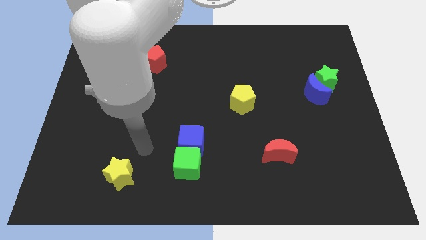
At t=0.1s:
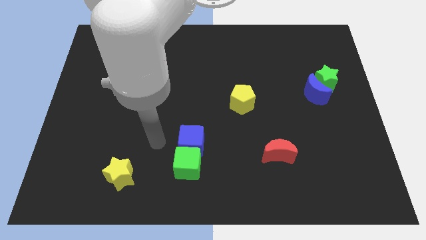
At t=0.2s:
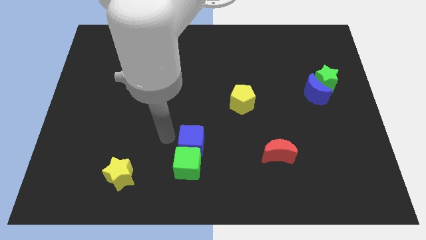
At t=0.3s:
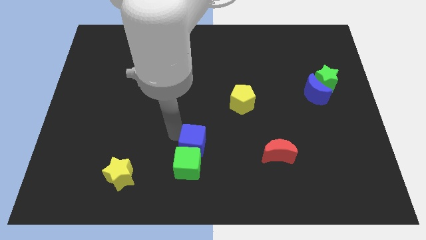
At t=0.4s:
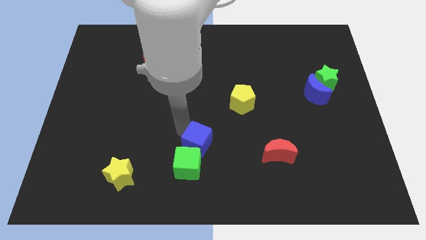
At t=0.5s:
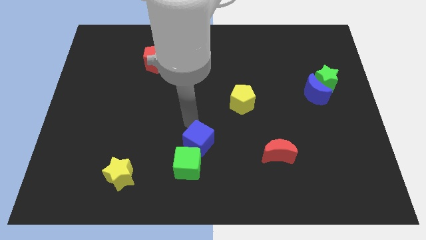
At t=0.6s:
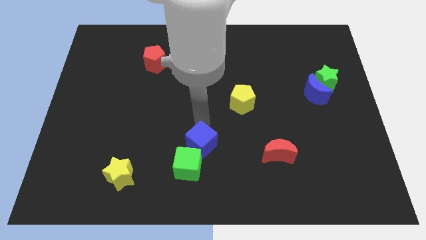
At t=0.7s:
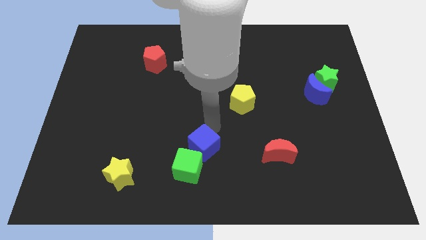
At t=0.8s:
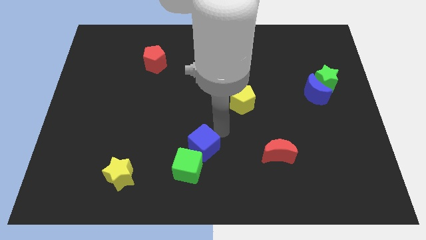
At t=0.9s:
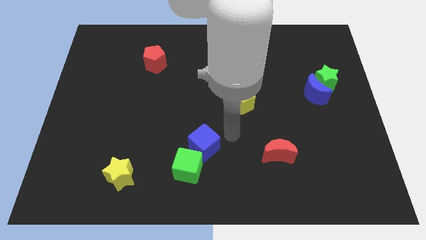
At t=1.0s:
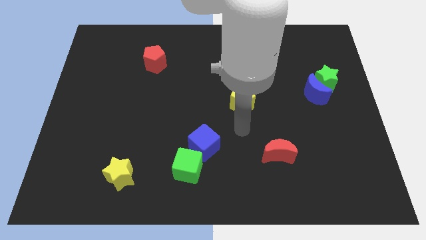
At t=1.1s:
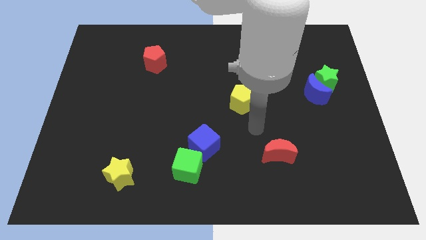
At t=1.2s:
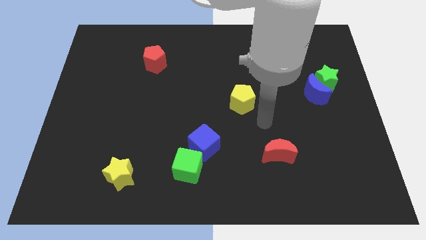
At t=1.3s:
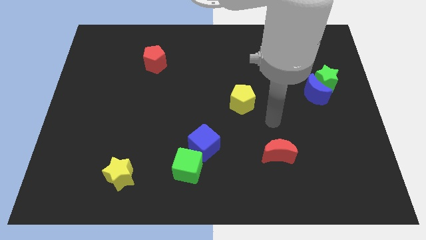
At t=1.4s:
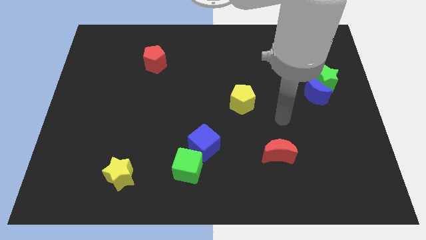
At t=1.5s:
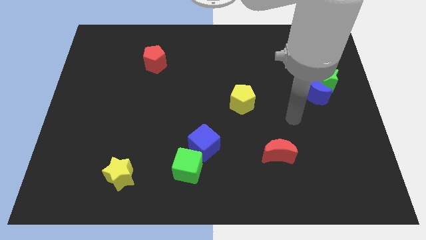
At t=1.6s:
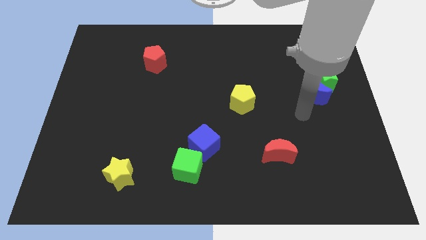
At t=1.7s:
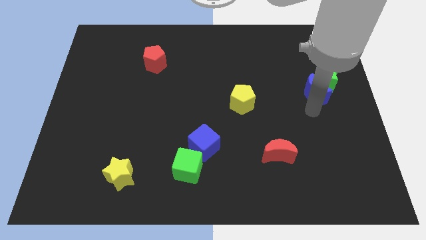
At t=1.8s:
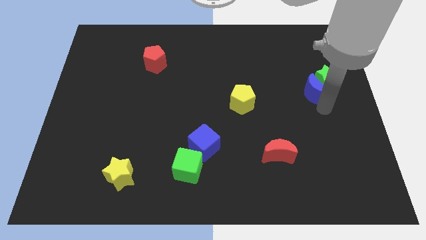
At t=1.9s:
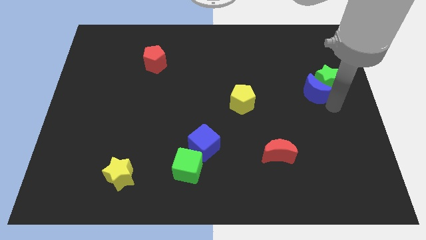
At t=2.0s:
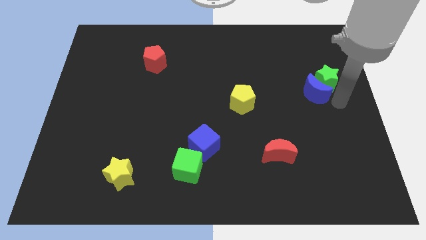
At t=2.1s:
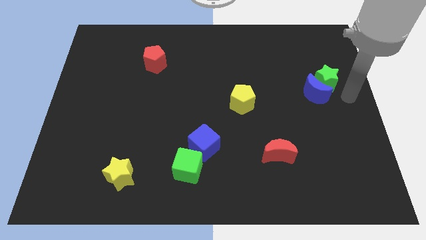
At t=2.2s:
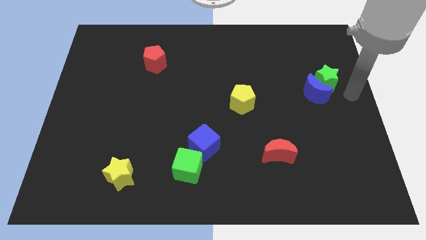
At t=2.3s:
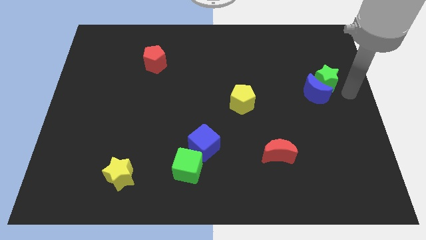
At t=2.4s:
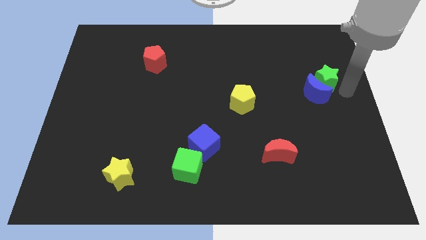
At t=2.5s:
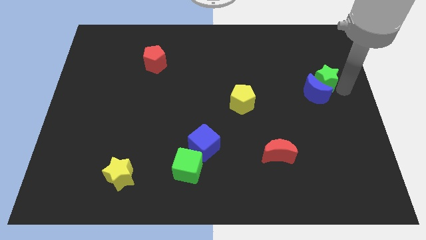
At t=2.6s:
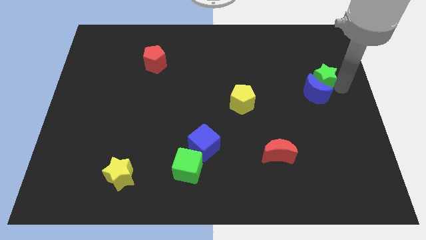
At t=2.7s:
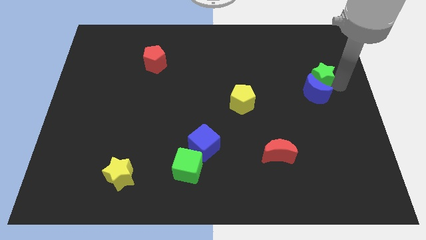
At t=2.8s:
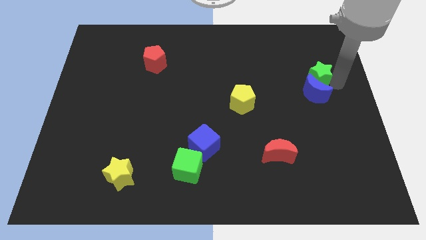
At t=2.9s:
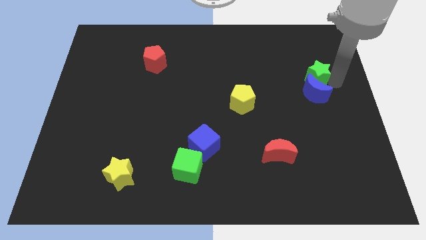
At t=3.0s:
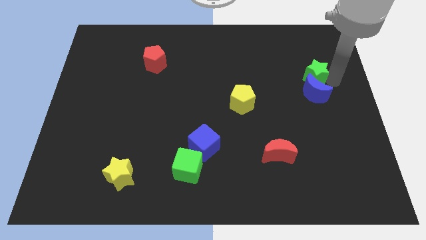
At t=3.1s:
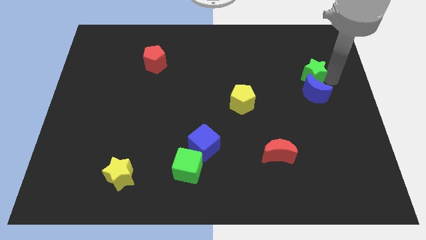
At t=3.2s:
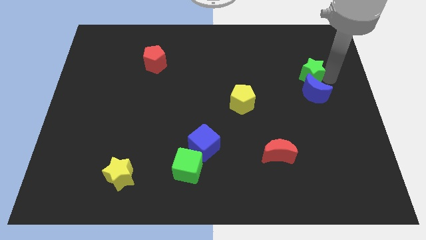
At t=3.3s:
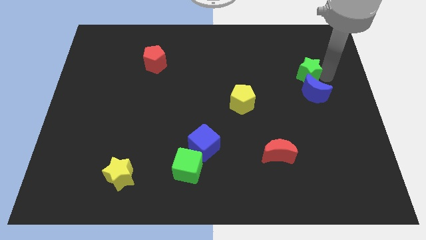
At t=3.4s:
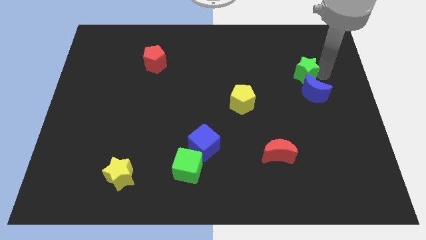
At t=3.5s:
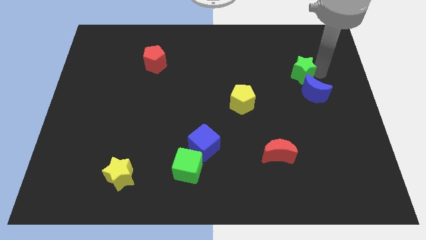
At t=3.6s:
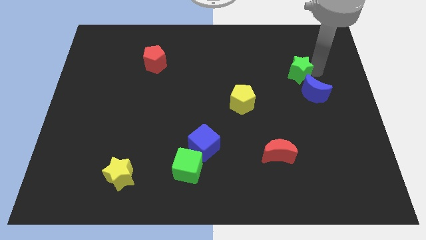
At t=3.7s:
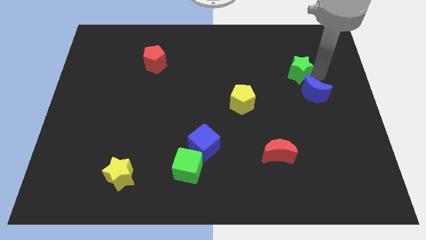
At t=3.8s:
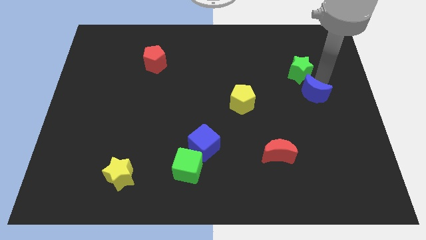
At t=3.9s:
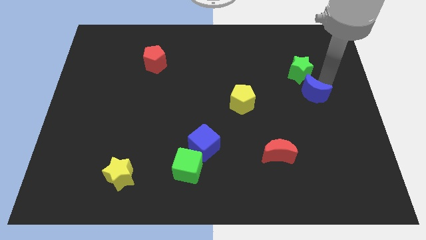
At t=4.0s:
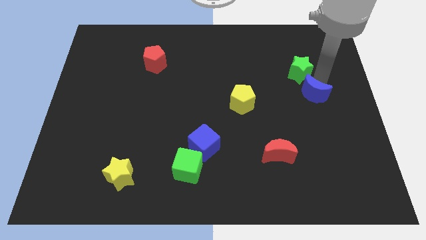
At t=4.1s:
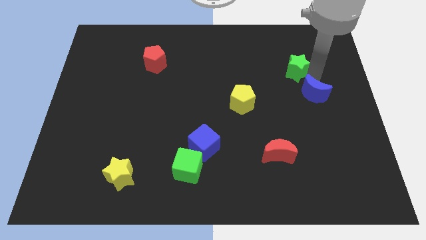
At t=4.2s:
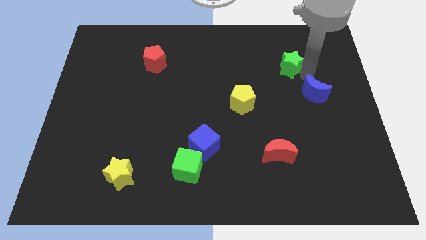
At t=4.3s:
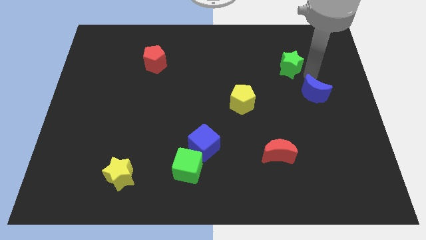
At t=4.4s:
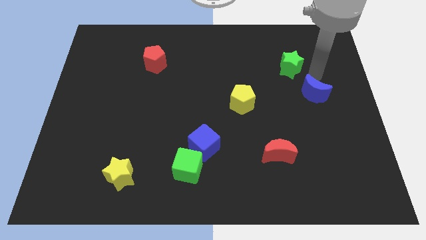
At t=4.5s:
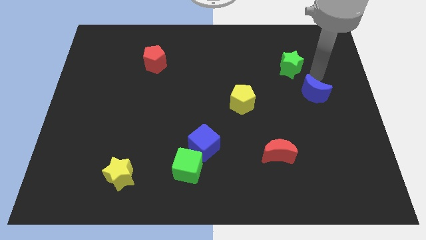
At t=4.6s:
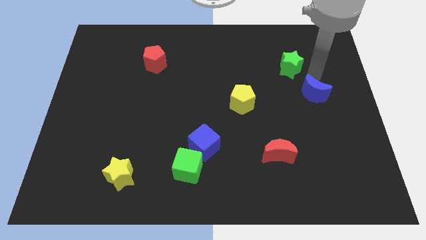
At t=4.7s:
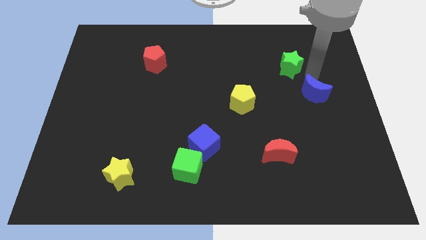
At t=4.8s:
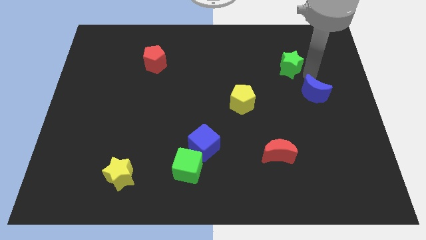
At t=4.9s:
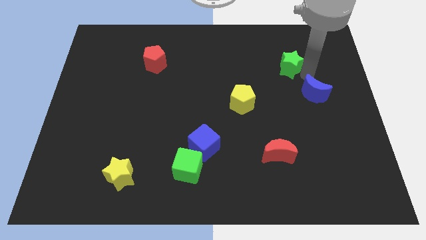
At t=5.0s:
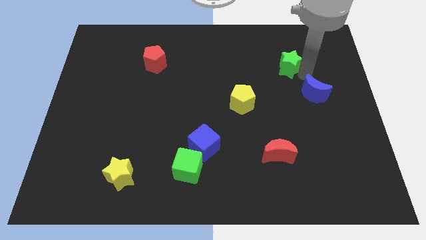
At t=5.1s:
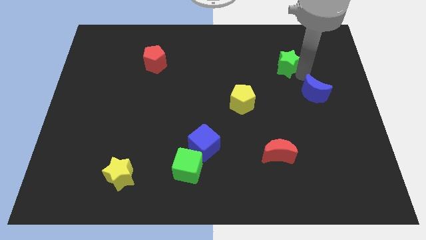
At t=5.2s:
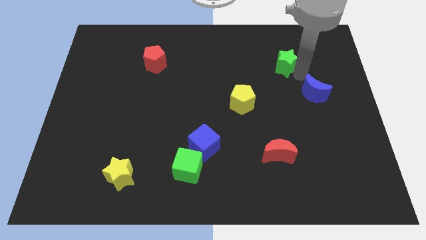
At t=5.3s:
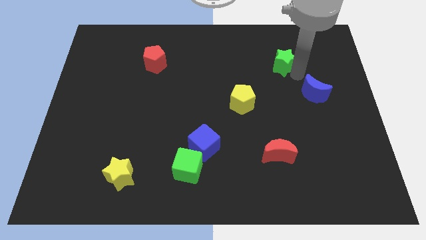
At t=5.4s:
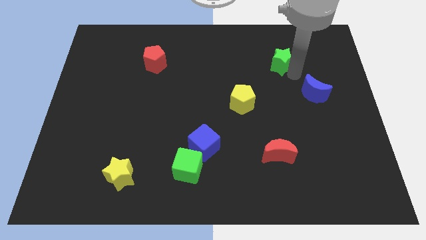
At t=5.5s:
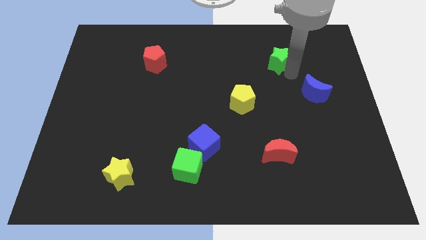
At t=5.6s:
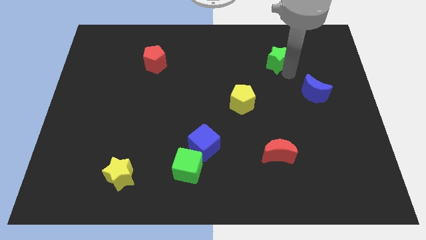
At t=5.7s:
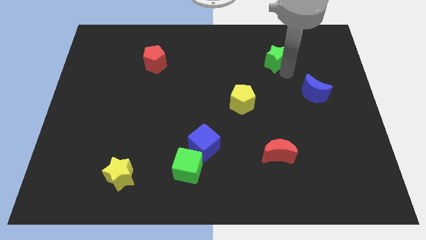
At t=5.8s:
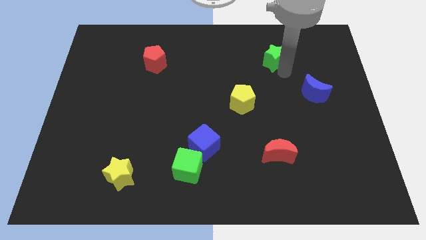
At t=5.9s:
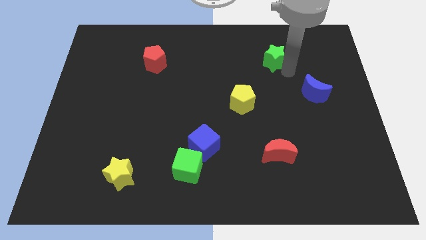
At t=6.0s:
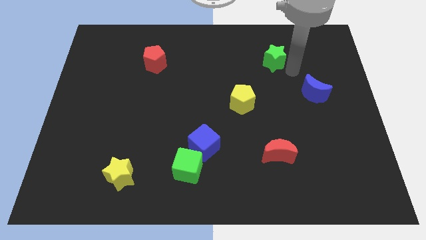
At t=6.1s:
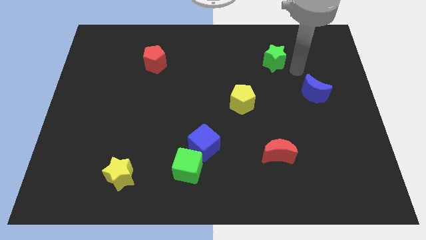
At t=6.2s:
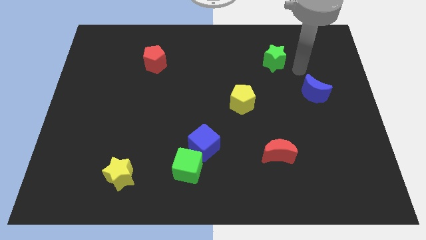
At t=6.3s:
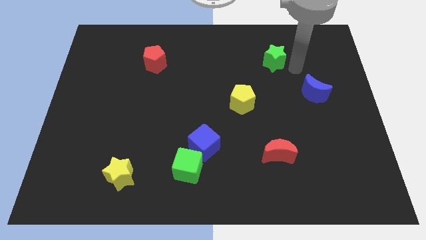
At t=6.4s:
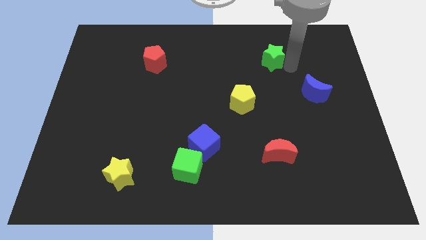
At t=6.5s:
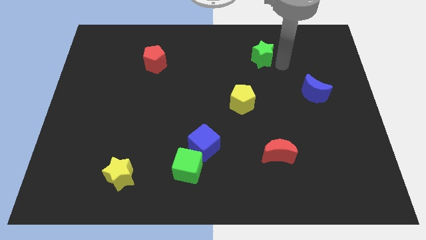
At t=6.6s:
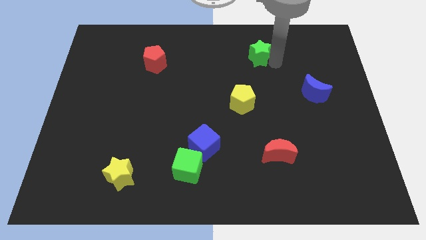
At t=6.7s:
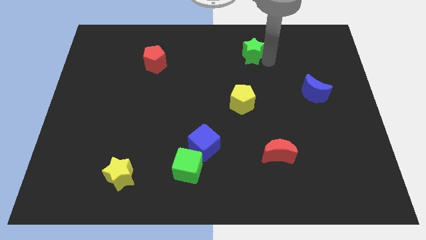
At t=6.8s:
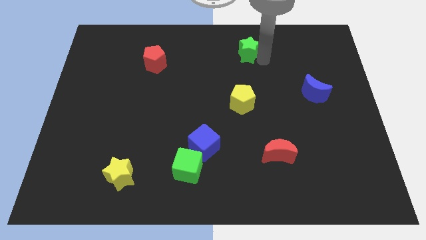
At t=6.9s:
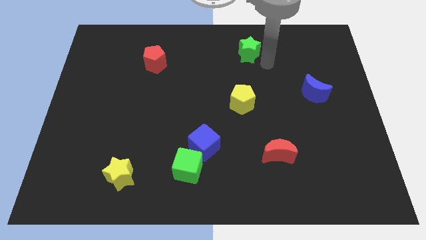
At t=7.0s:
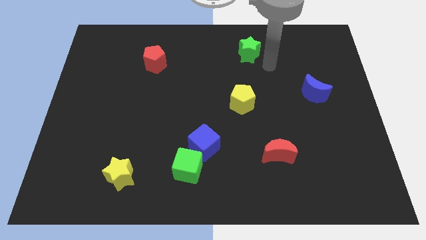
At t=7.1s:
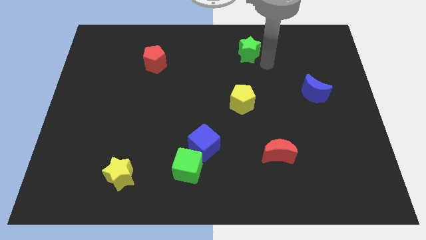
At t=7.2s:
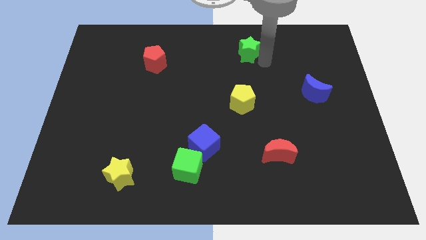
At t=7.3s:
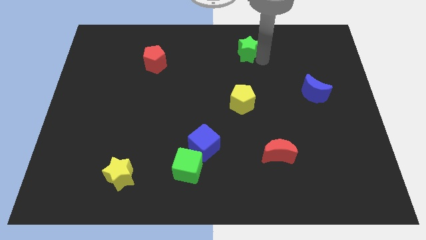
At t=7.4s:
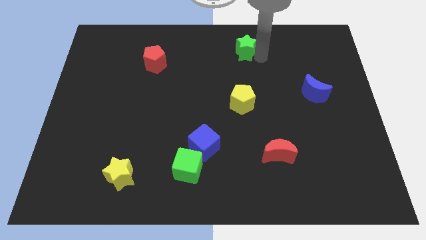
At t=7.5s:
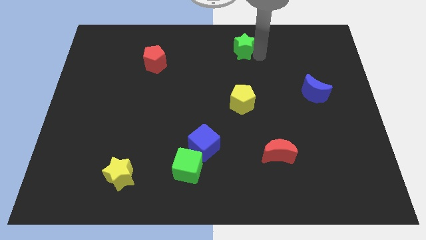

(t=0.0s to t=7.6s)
push the green star to the top
